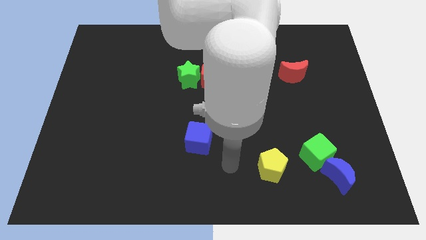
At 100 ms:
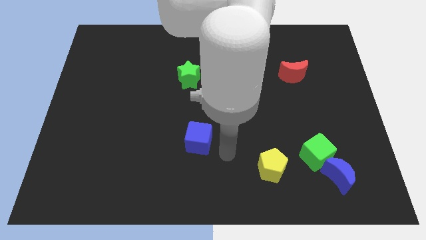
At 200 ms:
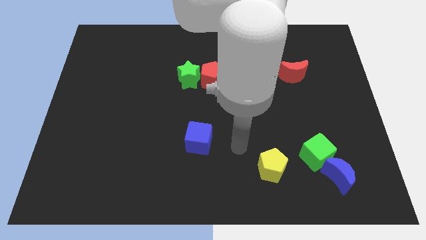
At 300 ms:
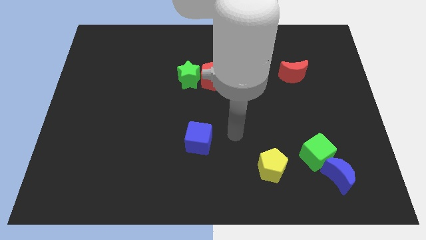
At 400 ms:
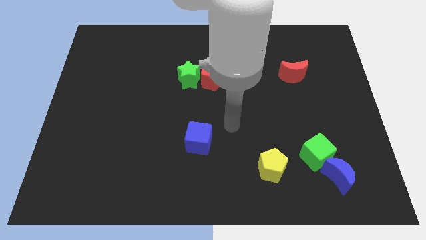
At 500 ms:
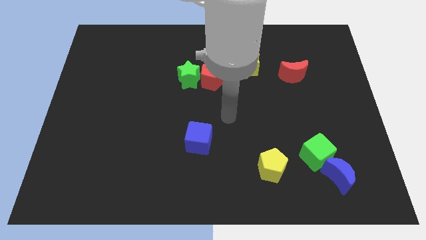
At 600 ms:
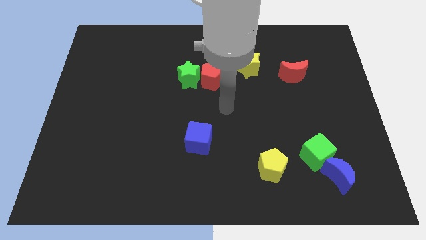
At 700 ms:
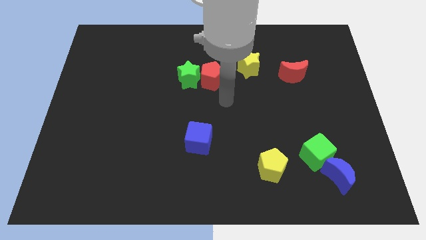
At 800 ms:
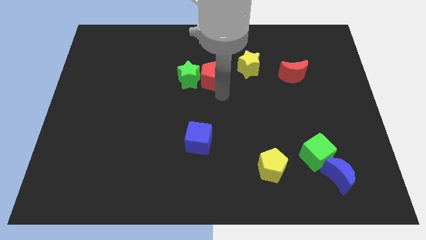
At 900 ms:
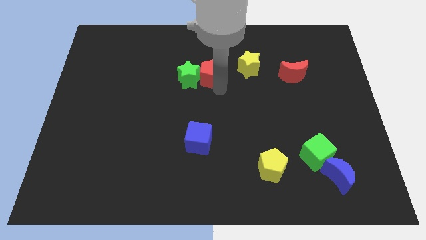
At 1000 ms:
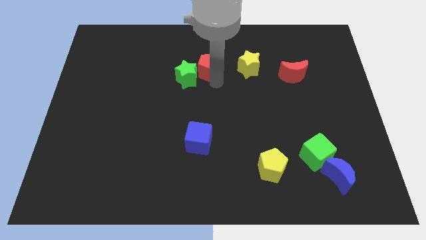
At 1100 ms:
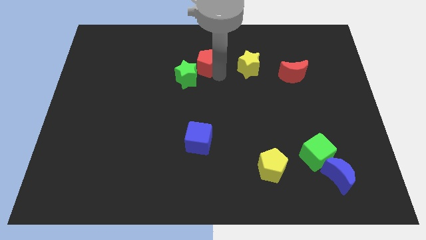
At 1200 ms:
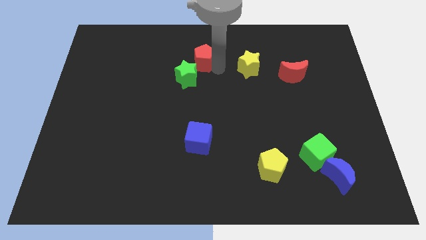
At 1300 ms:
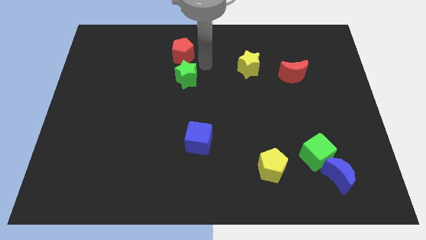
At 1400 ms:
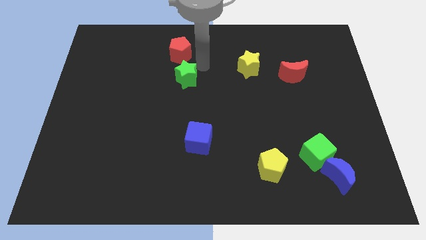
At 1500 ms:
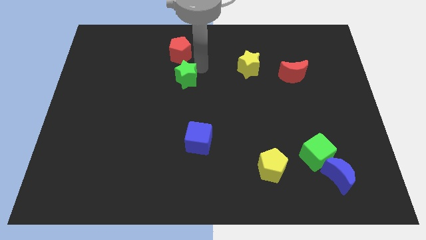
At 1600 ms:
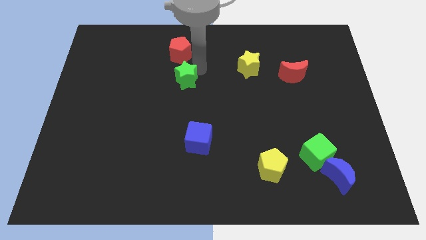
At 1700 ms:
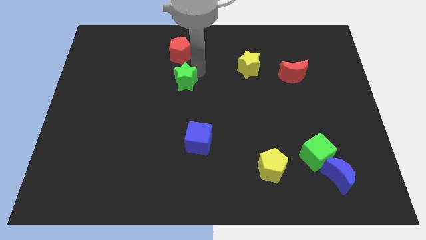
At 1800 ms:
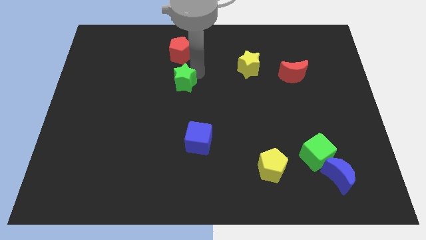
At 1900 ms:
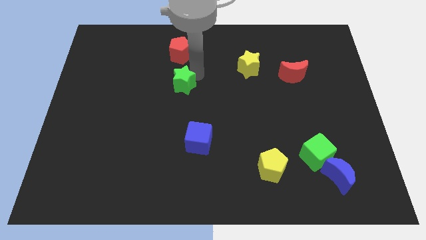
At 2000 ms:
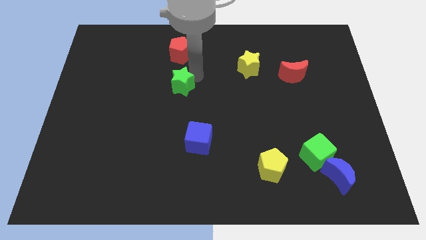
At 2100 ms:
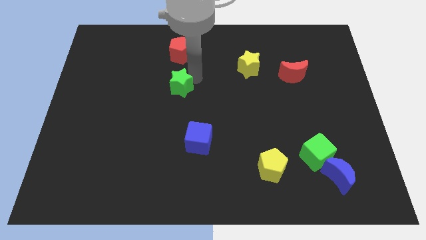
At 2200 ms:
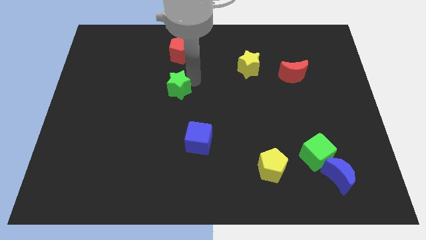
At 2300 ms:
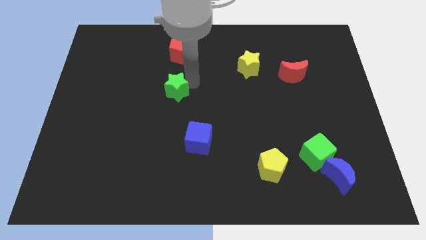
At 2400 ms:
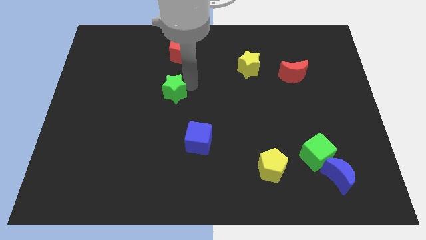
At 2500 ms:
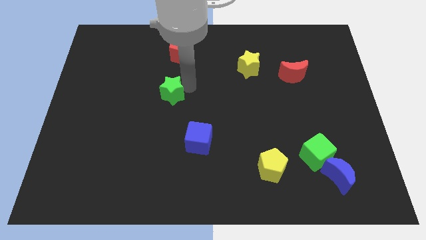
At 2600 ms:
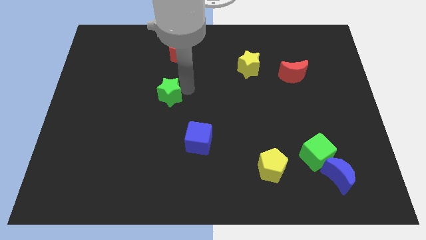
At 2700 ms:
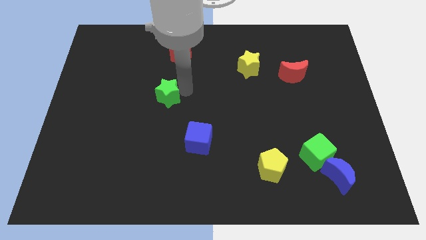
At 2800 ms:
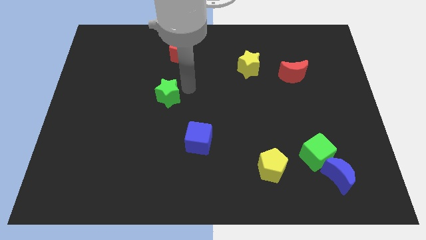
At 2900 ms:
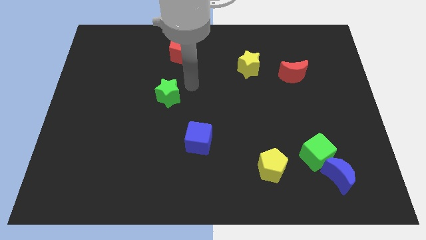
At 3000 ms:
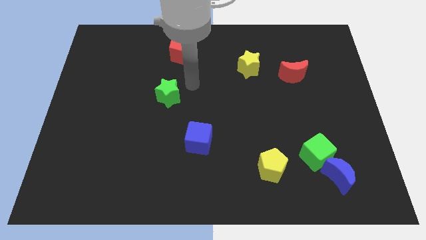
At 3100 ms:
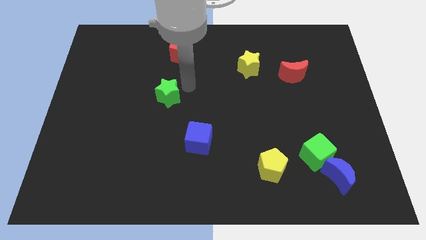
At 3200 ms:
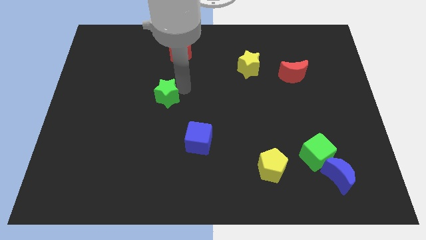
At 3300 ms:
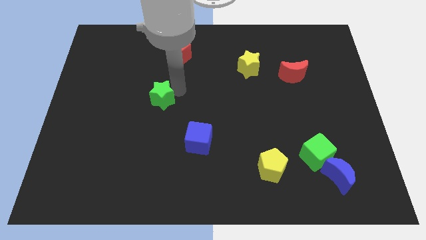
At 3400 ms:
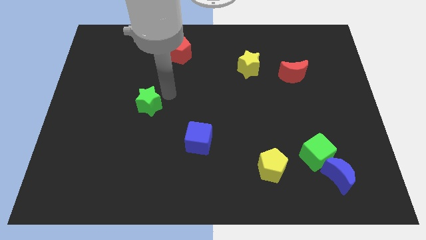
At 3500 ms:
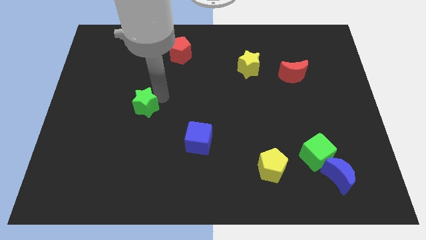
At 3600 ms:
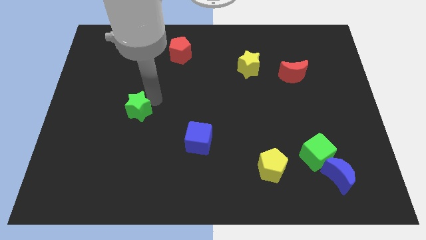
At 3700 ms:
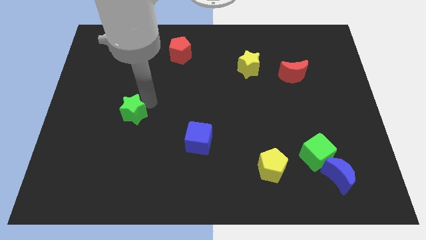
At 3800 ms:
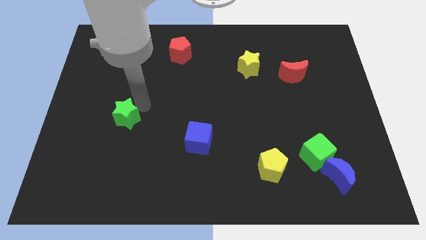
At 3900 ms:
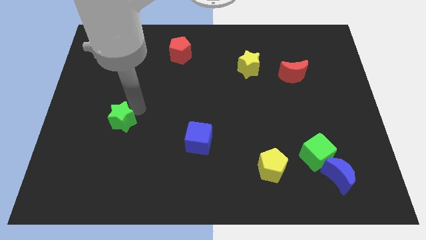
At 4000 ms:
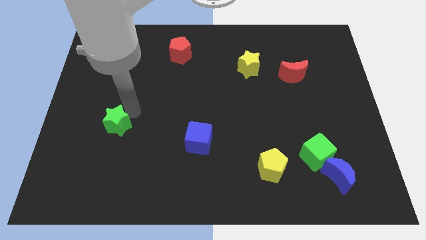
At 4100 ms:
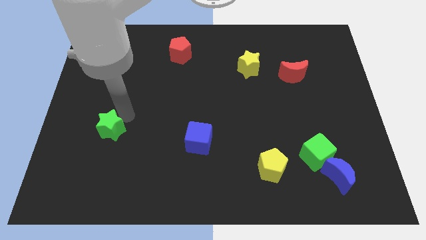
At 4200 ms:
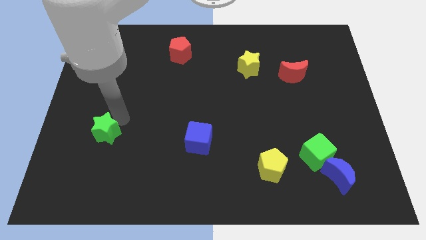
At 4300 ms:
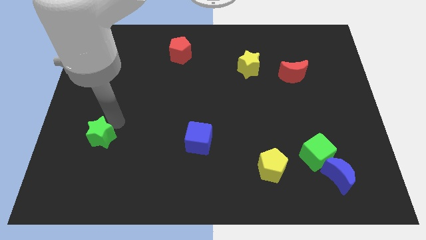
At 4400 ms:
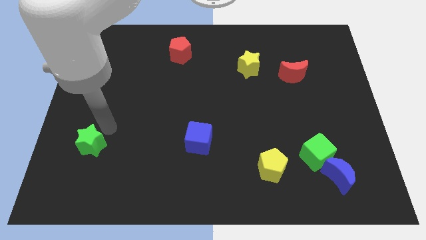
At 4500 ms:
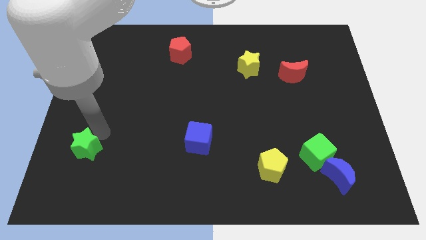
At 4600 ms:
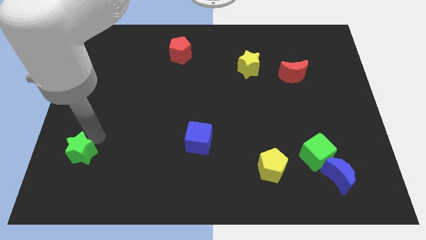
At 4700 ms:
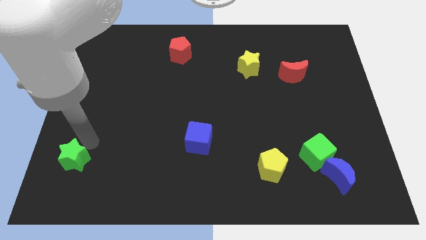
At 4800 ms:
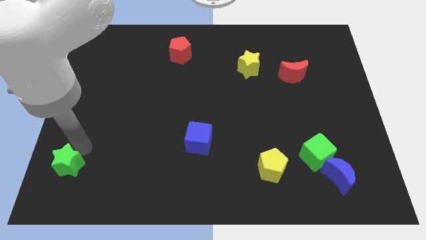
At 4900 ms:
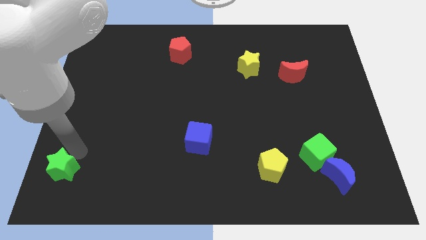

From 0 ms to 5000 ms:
put the green star to the lower left corner

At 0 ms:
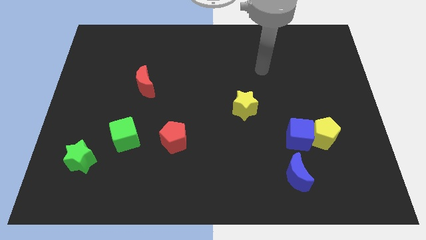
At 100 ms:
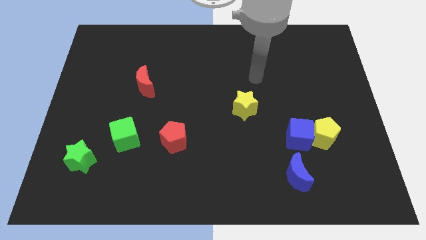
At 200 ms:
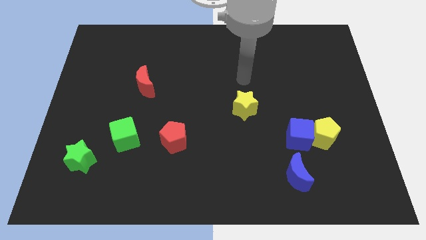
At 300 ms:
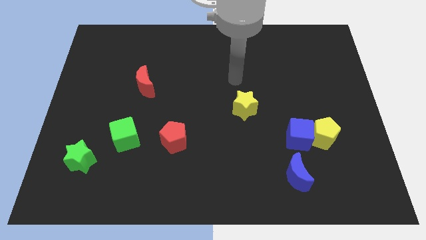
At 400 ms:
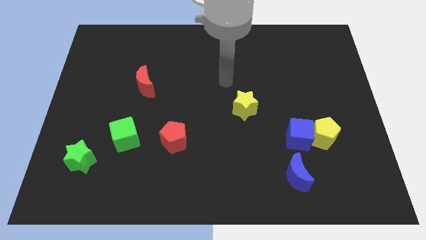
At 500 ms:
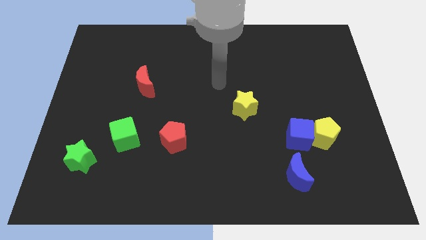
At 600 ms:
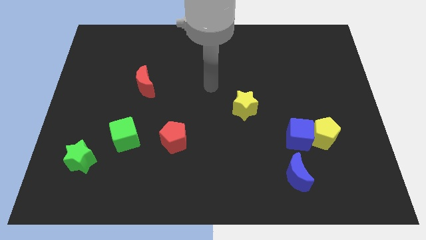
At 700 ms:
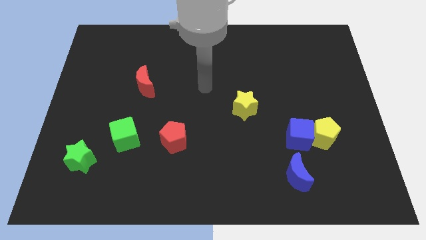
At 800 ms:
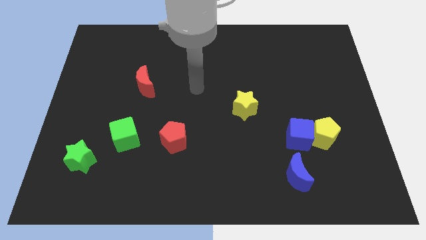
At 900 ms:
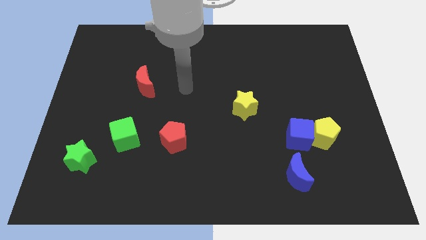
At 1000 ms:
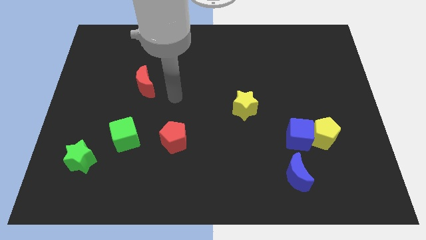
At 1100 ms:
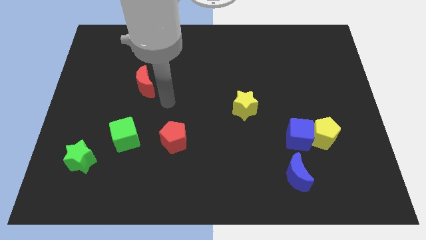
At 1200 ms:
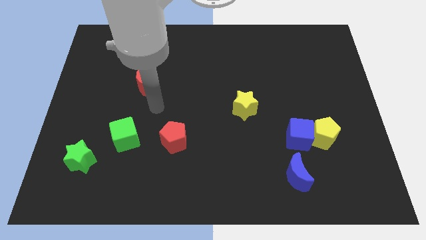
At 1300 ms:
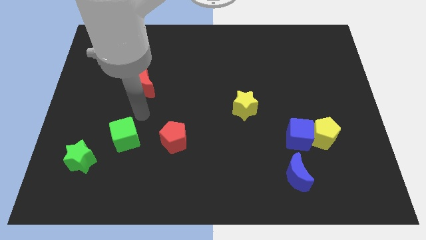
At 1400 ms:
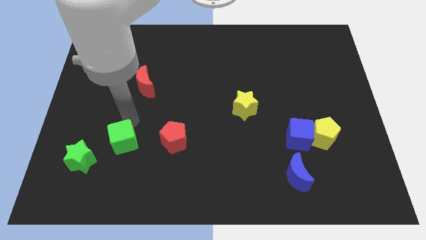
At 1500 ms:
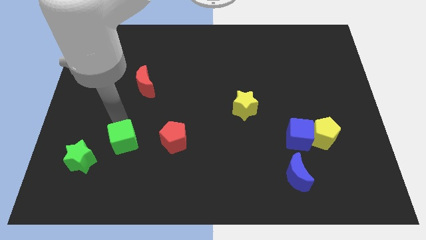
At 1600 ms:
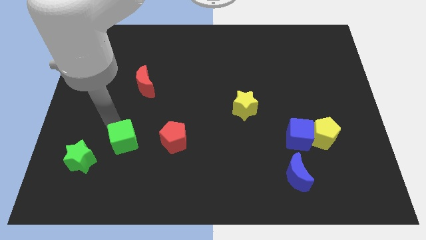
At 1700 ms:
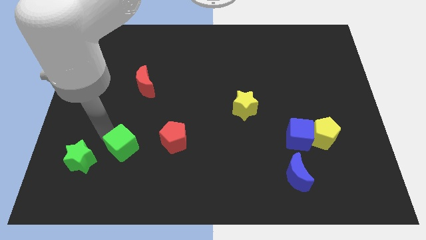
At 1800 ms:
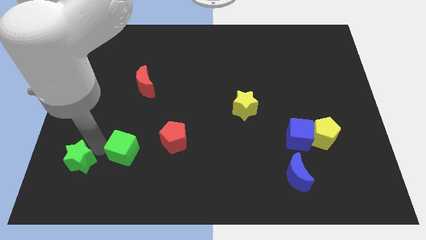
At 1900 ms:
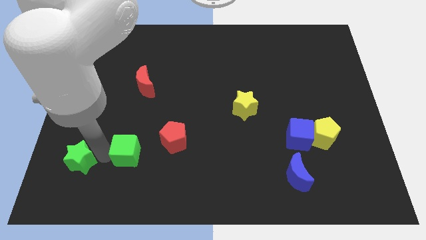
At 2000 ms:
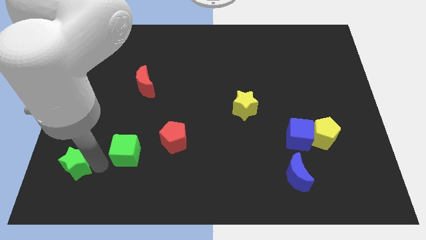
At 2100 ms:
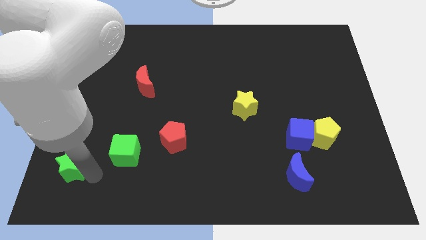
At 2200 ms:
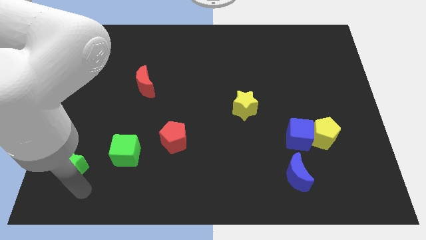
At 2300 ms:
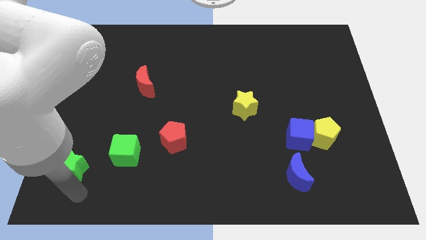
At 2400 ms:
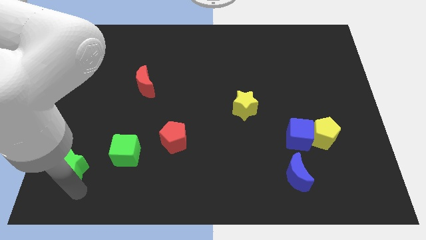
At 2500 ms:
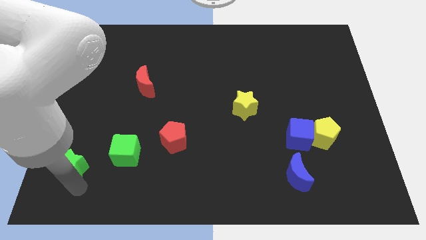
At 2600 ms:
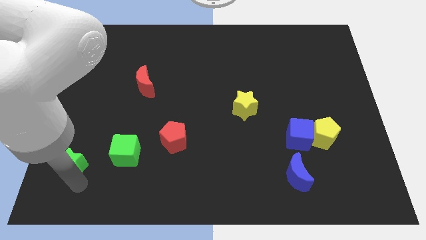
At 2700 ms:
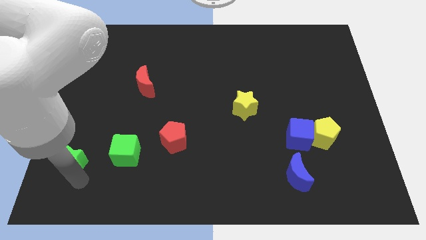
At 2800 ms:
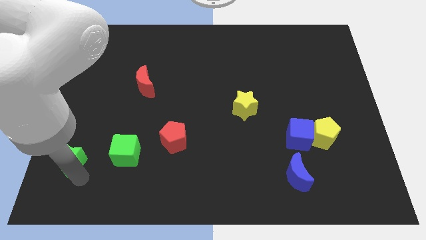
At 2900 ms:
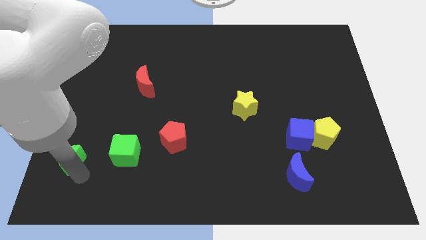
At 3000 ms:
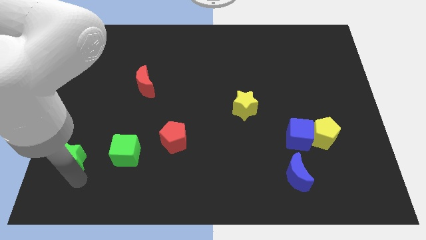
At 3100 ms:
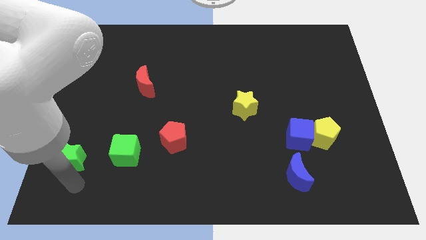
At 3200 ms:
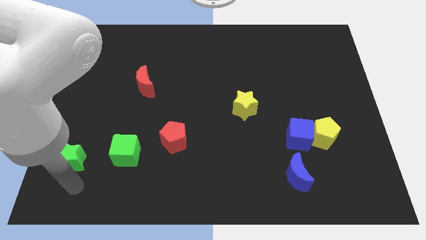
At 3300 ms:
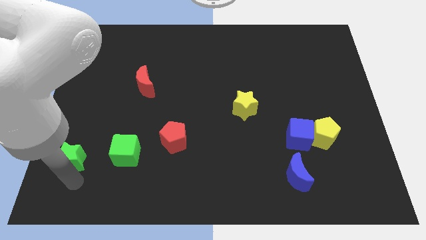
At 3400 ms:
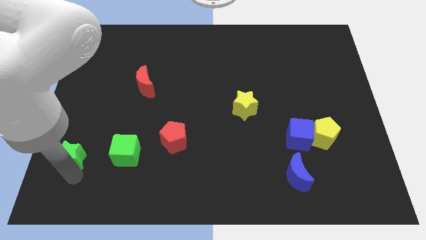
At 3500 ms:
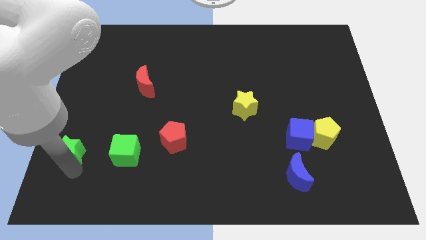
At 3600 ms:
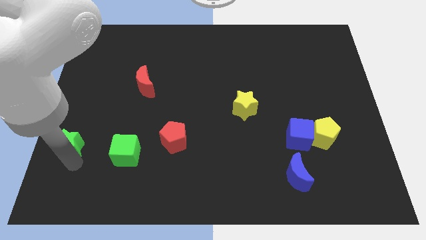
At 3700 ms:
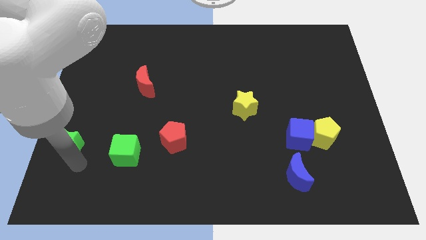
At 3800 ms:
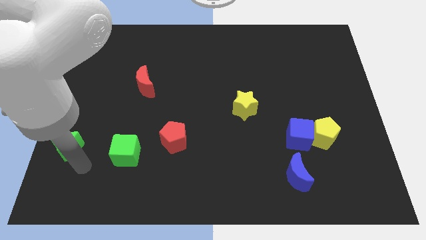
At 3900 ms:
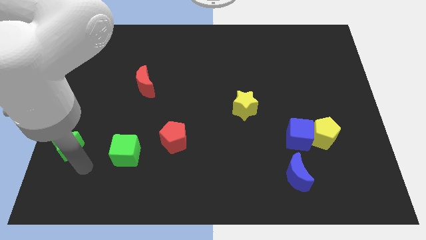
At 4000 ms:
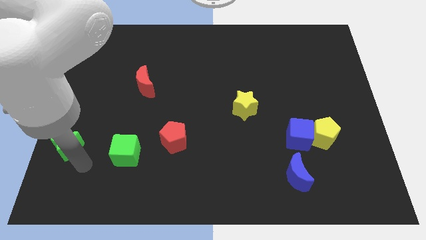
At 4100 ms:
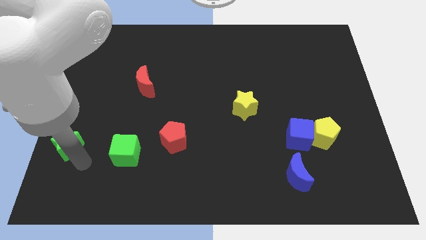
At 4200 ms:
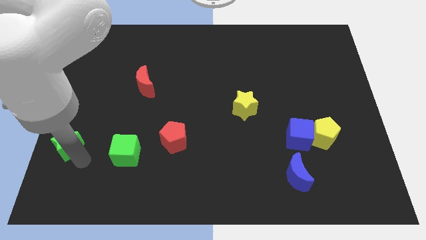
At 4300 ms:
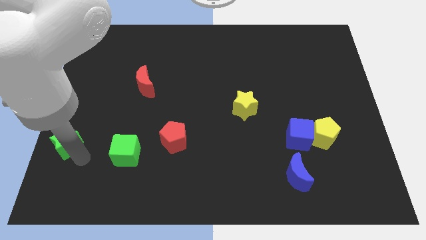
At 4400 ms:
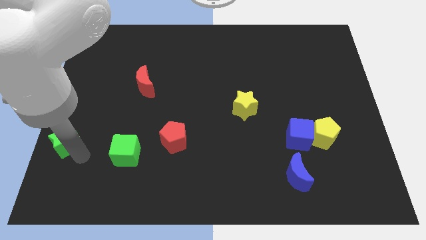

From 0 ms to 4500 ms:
slide the green star to the center left
